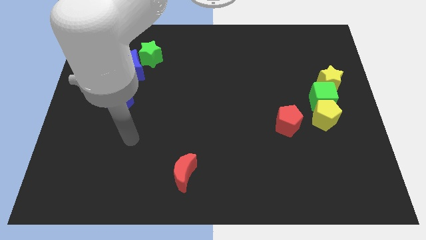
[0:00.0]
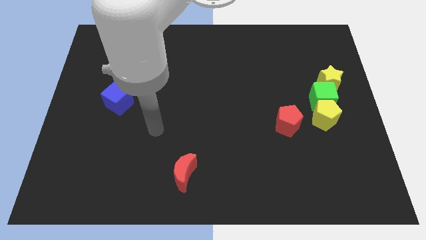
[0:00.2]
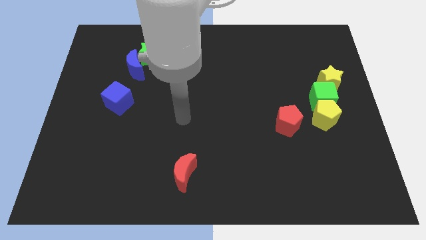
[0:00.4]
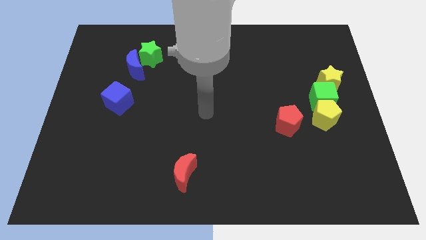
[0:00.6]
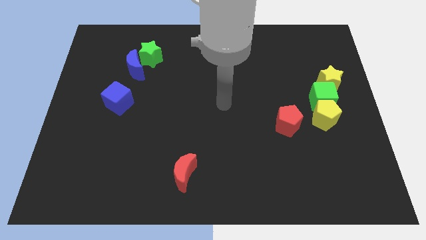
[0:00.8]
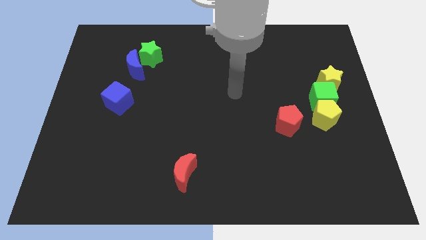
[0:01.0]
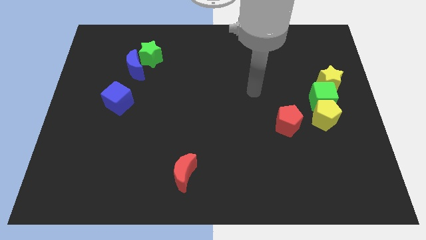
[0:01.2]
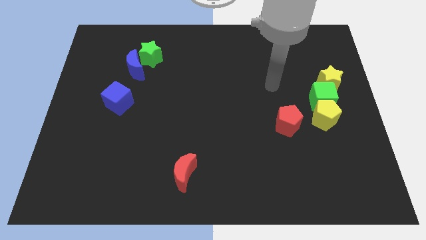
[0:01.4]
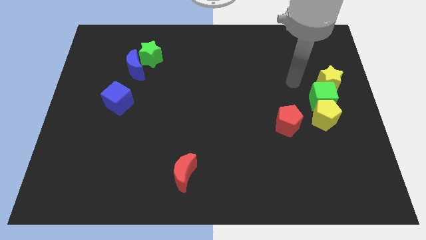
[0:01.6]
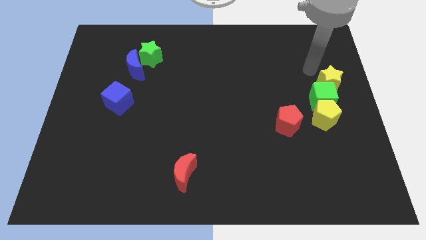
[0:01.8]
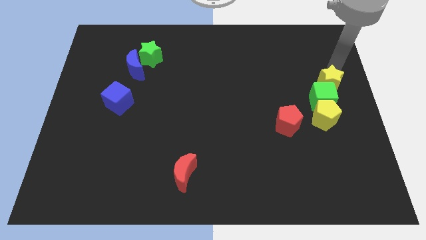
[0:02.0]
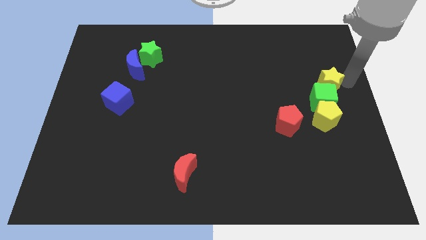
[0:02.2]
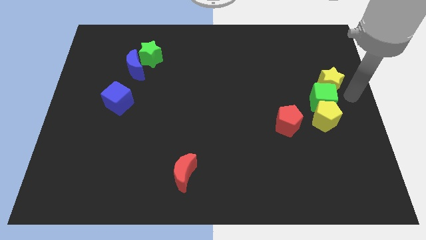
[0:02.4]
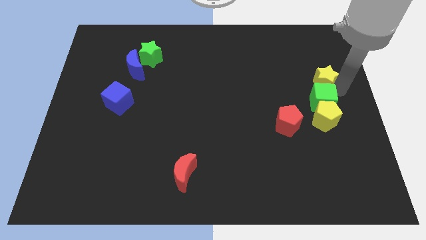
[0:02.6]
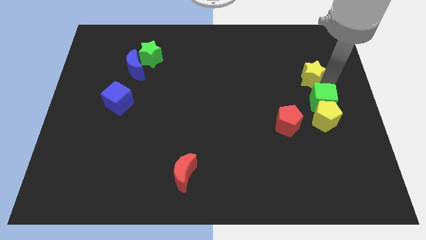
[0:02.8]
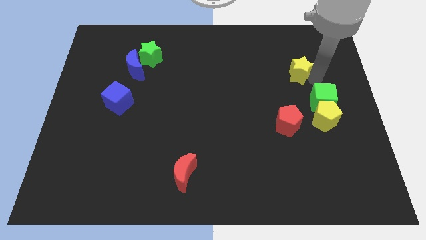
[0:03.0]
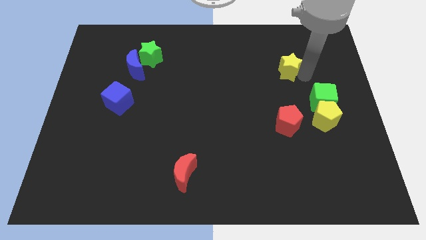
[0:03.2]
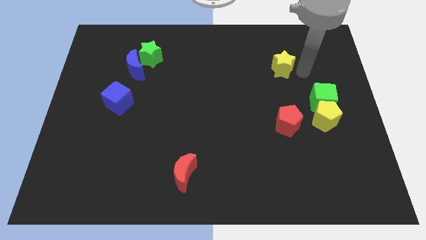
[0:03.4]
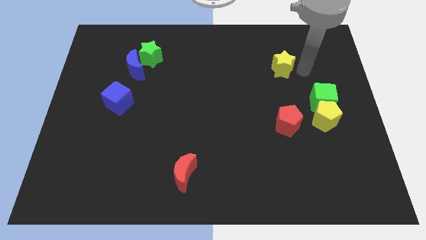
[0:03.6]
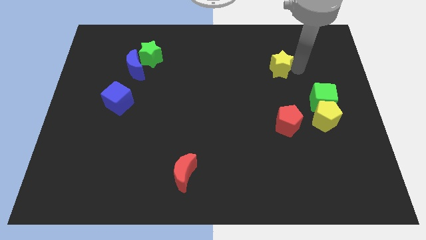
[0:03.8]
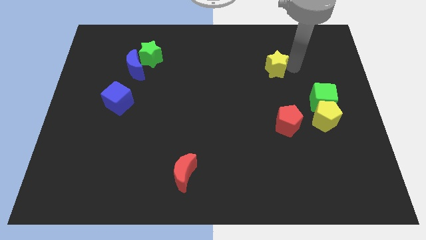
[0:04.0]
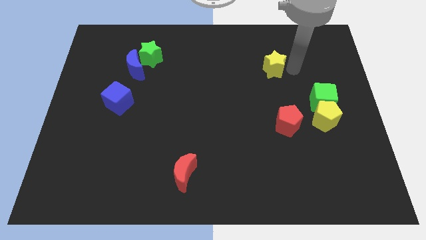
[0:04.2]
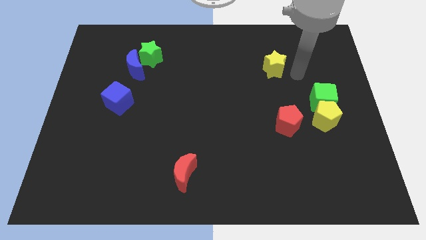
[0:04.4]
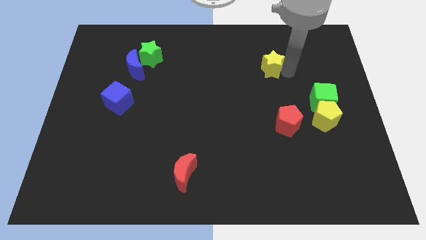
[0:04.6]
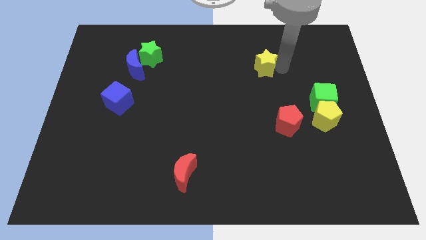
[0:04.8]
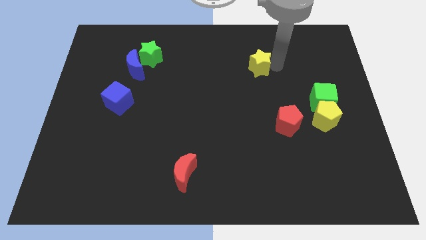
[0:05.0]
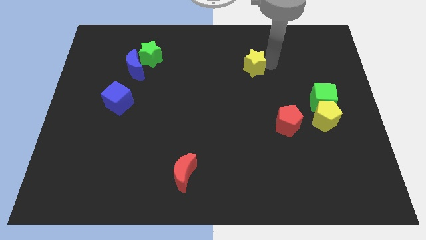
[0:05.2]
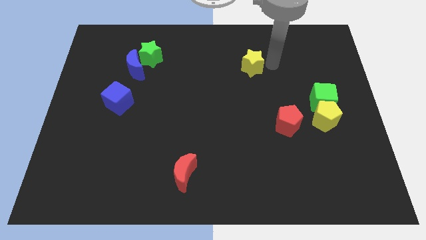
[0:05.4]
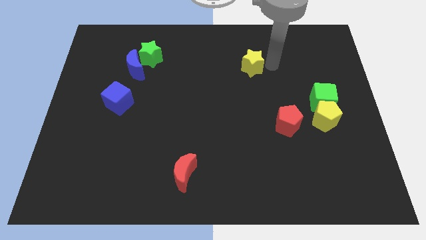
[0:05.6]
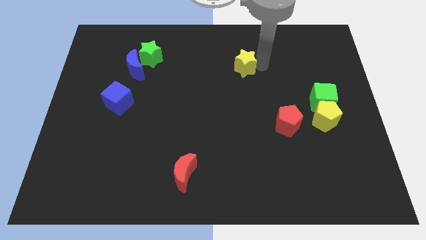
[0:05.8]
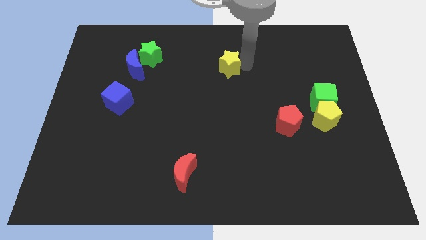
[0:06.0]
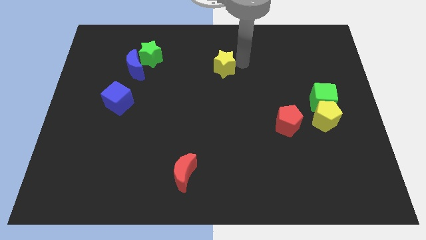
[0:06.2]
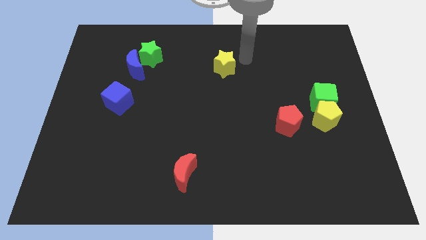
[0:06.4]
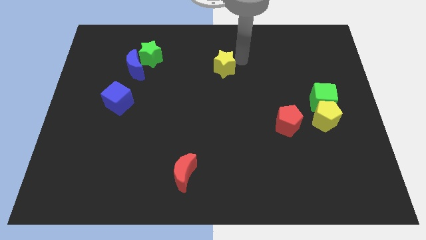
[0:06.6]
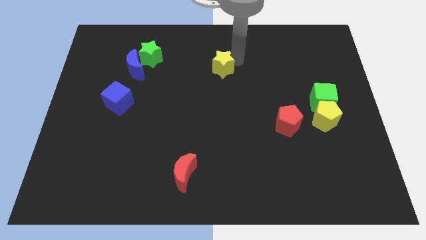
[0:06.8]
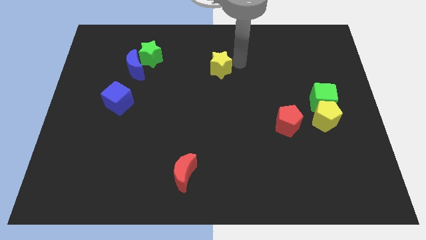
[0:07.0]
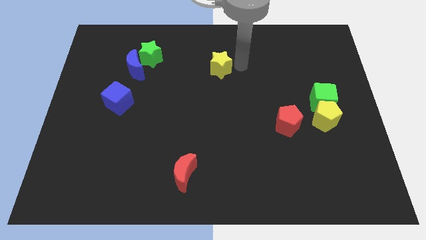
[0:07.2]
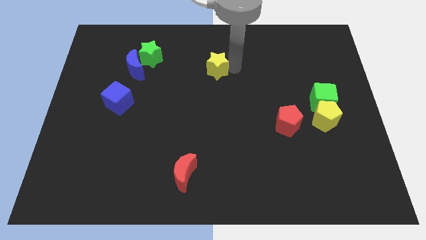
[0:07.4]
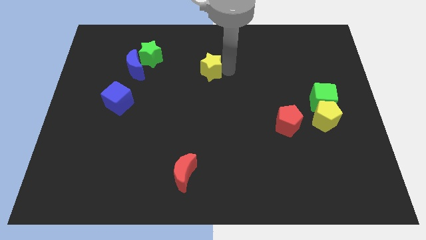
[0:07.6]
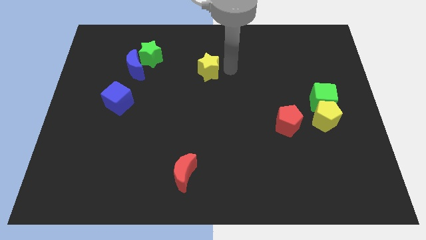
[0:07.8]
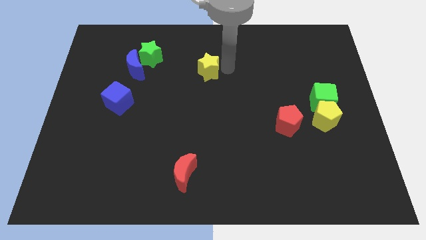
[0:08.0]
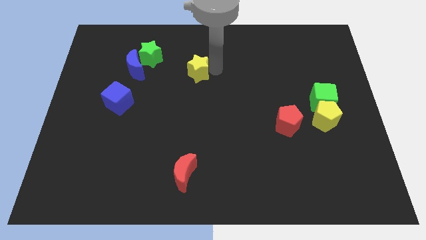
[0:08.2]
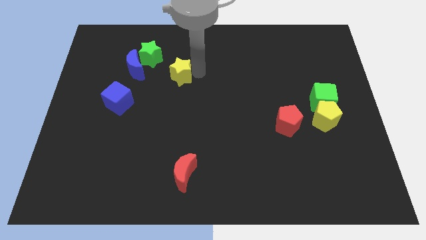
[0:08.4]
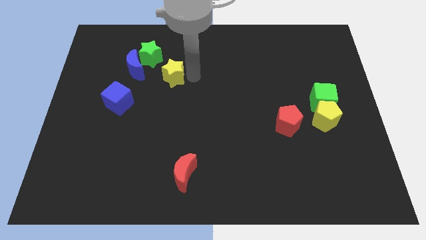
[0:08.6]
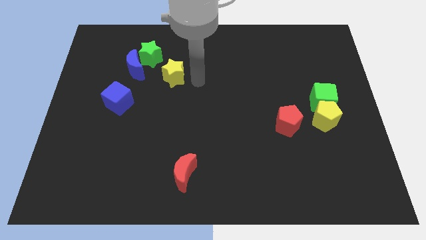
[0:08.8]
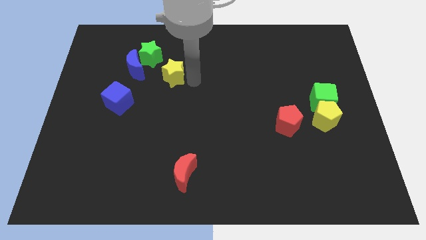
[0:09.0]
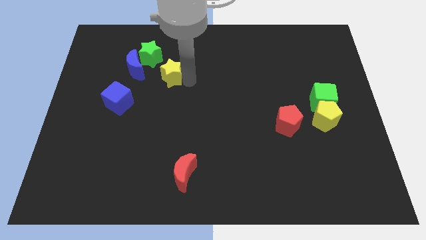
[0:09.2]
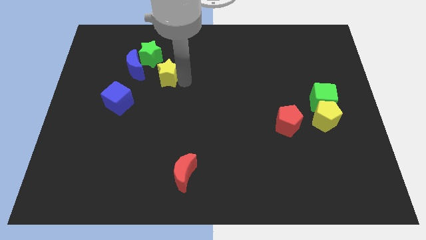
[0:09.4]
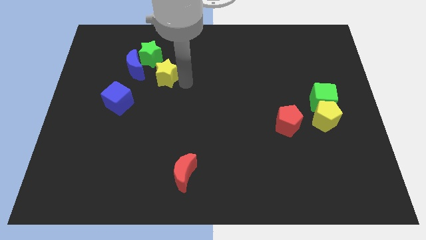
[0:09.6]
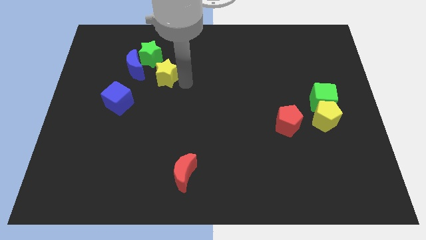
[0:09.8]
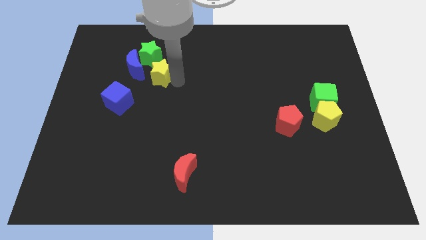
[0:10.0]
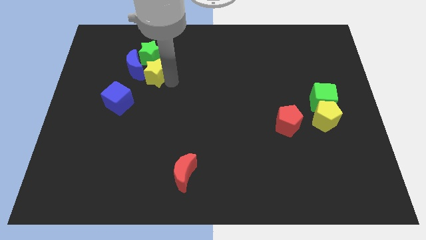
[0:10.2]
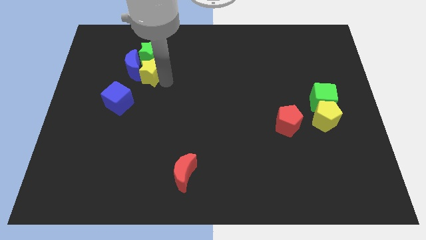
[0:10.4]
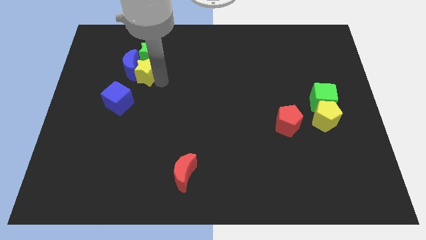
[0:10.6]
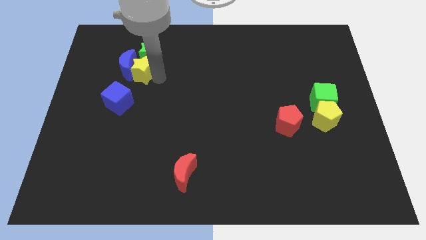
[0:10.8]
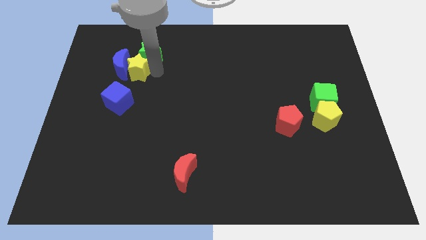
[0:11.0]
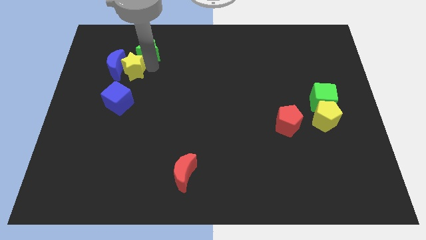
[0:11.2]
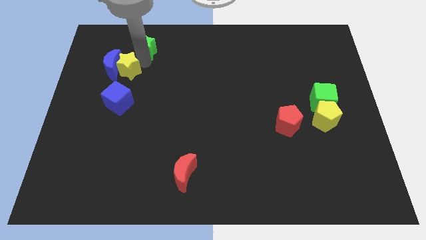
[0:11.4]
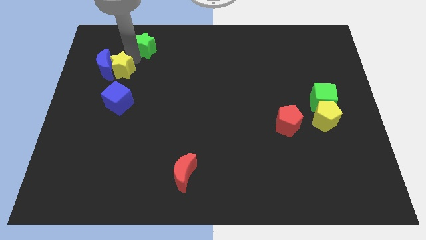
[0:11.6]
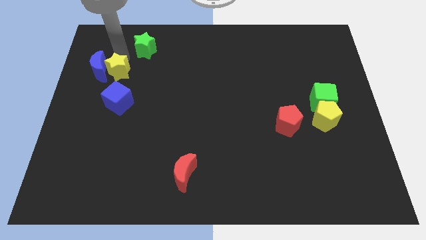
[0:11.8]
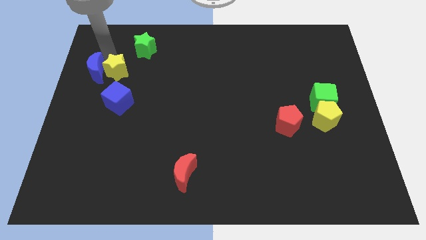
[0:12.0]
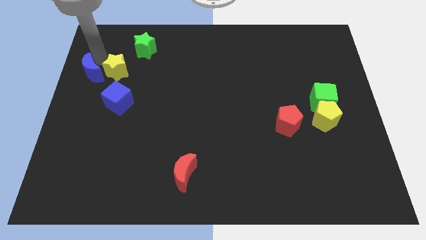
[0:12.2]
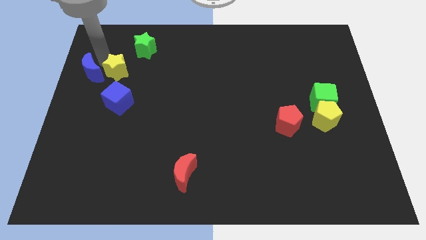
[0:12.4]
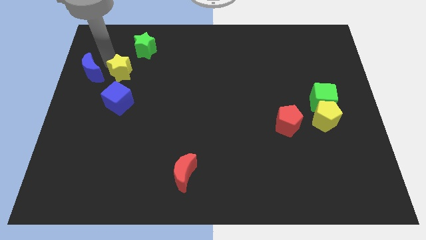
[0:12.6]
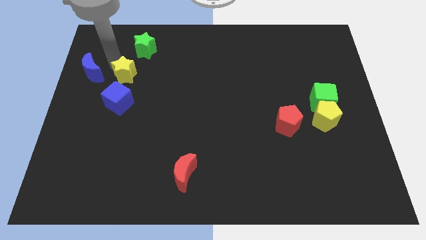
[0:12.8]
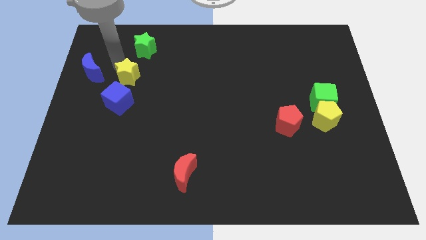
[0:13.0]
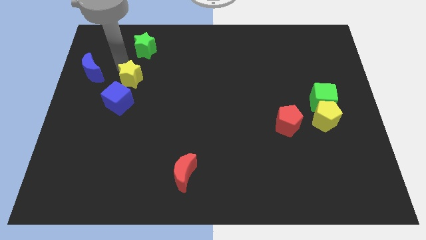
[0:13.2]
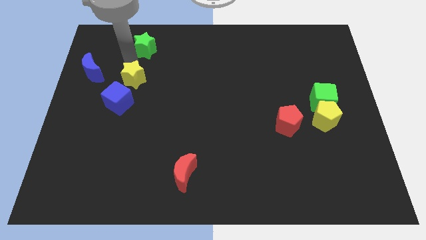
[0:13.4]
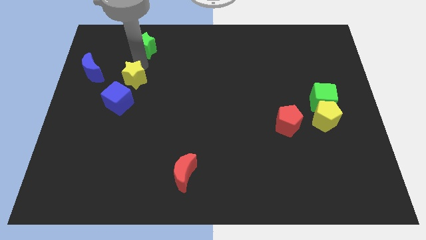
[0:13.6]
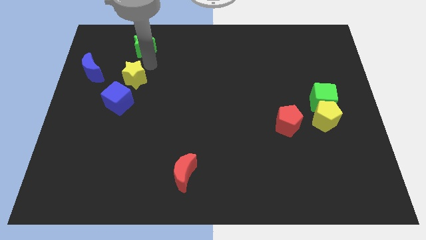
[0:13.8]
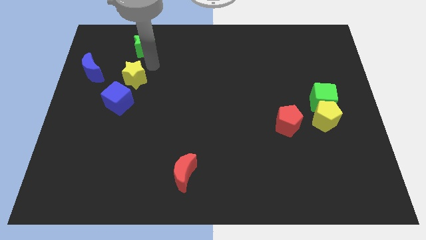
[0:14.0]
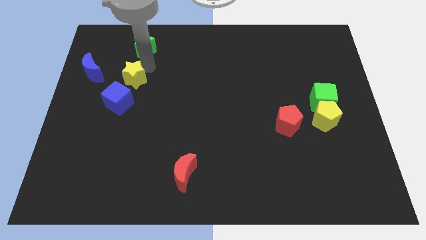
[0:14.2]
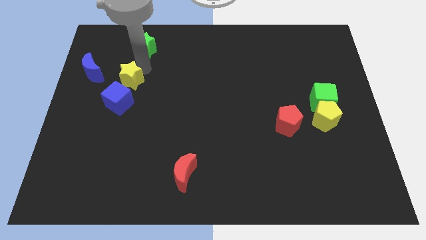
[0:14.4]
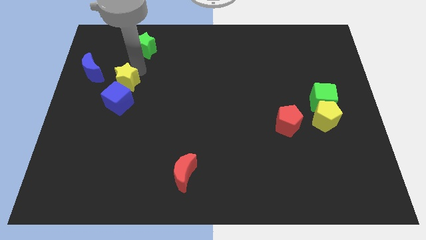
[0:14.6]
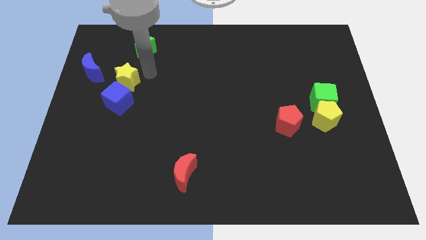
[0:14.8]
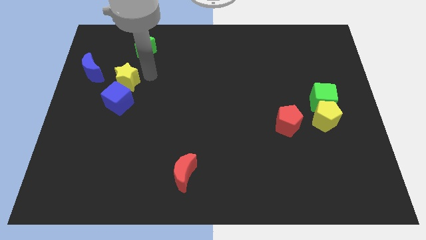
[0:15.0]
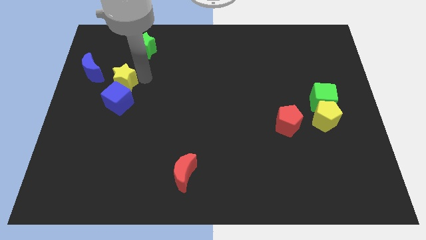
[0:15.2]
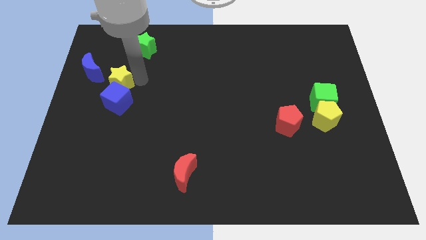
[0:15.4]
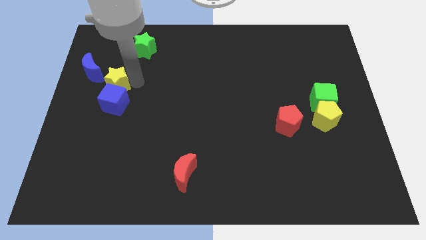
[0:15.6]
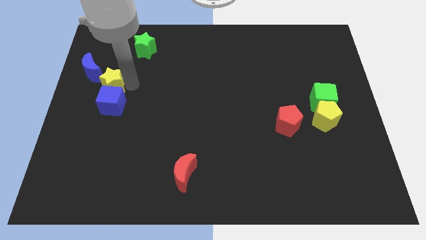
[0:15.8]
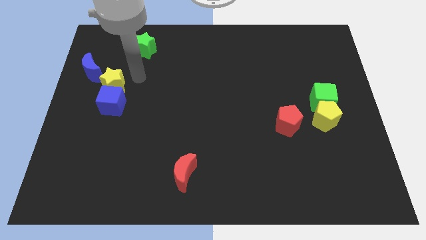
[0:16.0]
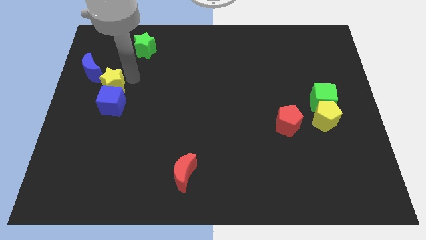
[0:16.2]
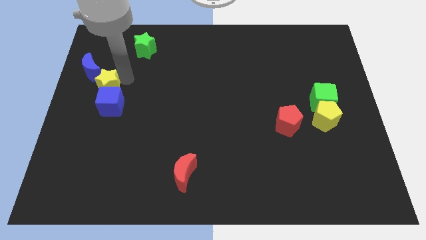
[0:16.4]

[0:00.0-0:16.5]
push the yellow star to the left side of the board
